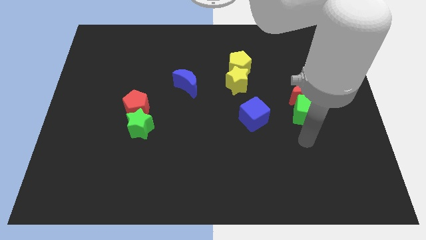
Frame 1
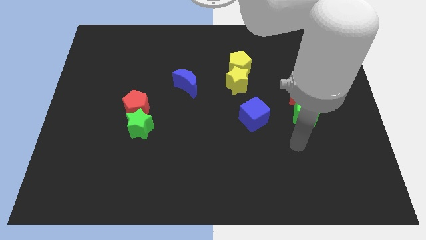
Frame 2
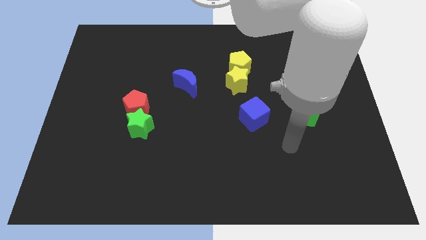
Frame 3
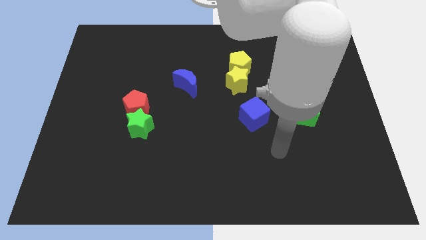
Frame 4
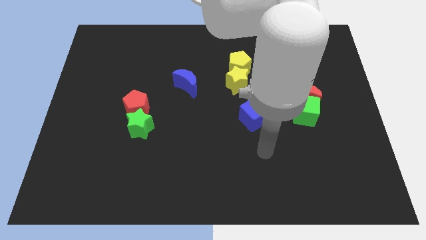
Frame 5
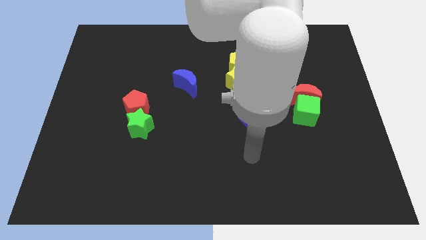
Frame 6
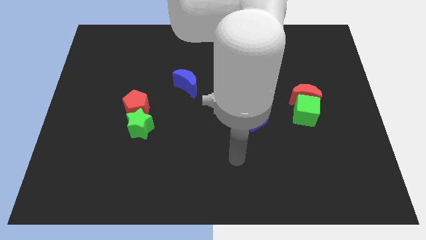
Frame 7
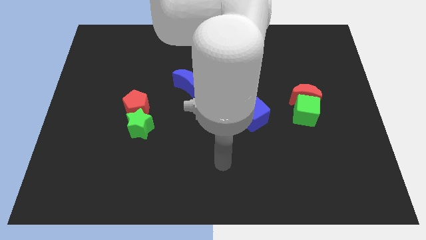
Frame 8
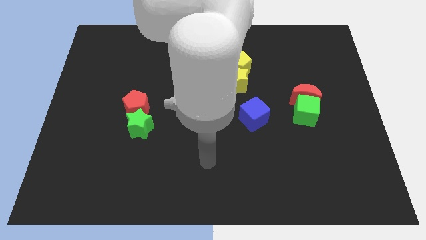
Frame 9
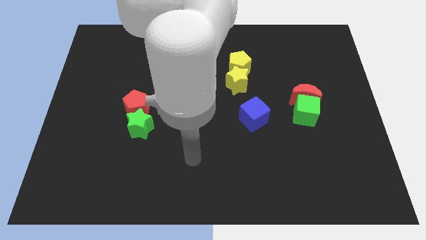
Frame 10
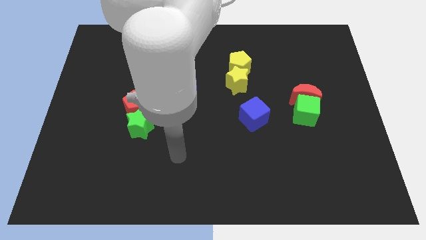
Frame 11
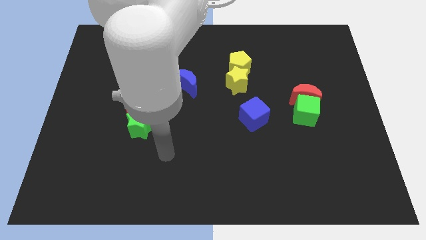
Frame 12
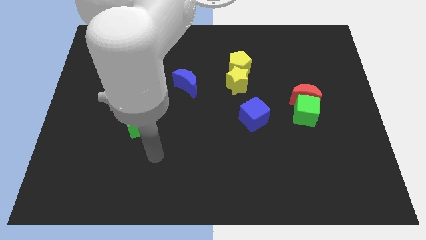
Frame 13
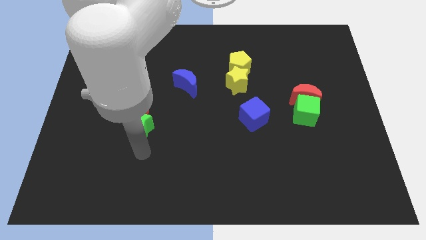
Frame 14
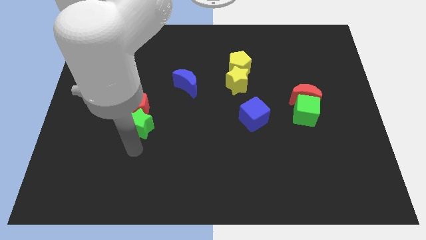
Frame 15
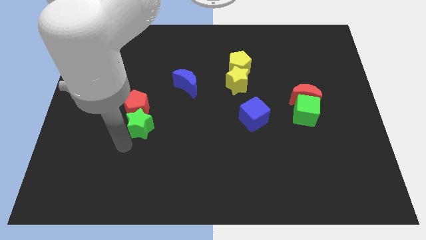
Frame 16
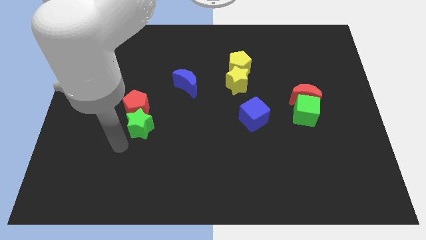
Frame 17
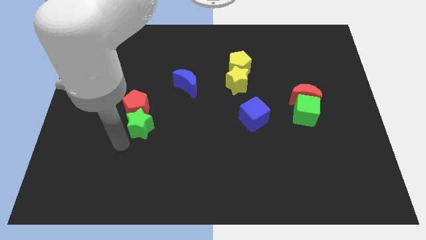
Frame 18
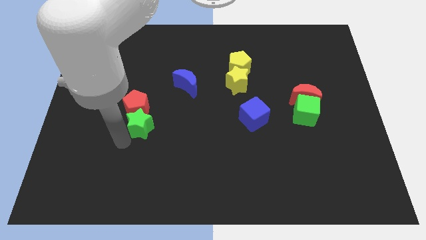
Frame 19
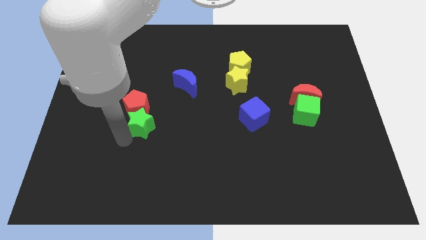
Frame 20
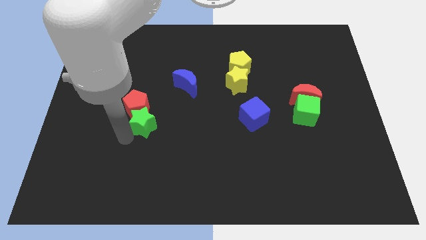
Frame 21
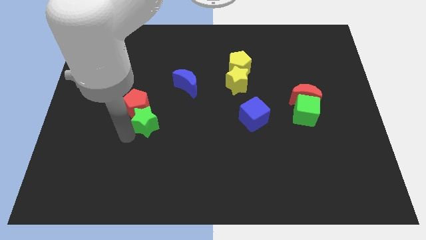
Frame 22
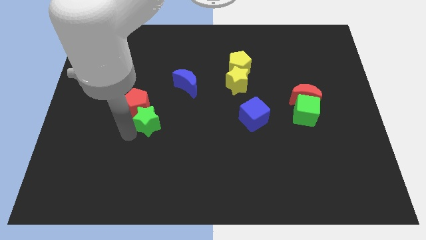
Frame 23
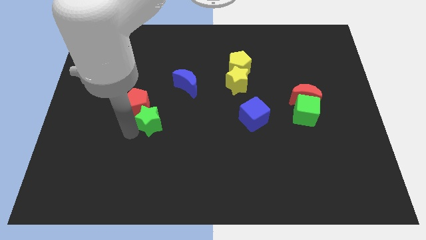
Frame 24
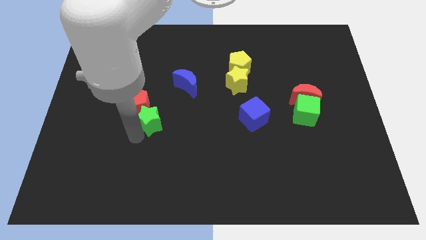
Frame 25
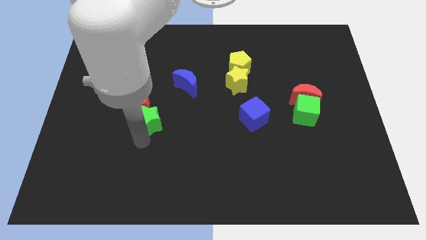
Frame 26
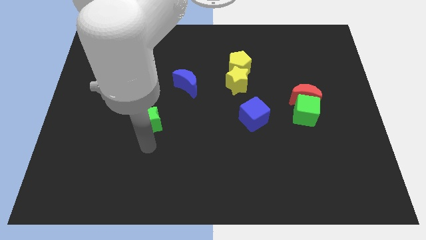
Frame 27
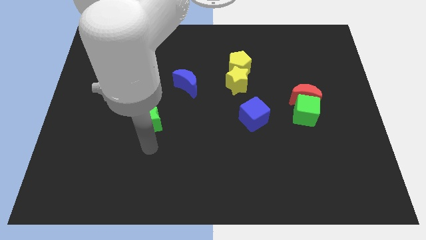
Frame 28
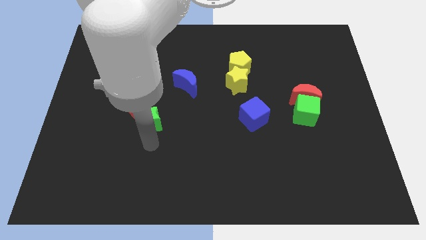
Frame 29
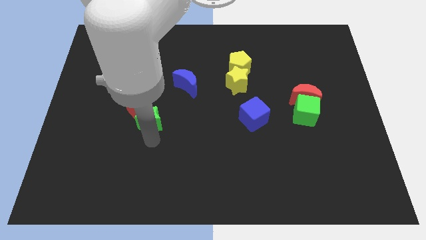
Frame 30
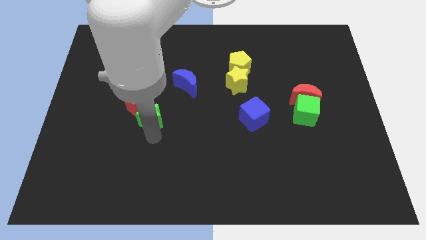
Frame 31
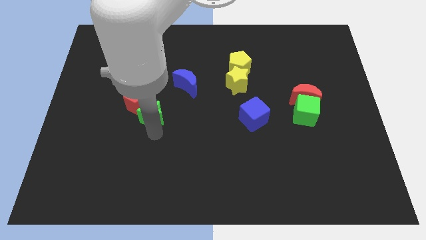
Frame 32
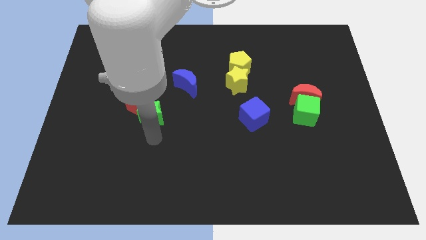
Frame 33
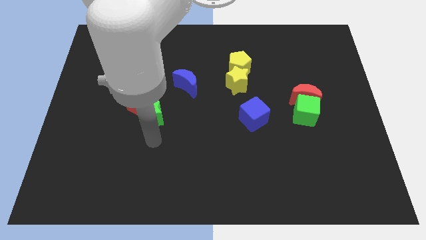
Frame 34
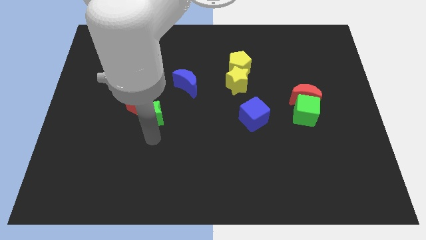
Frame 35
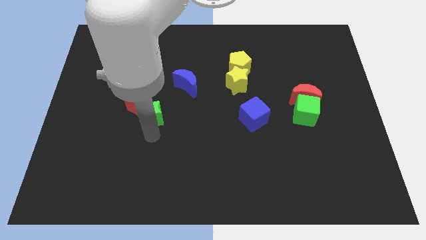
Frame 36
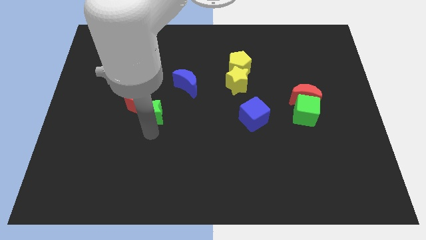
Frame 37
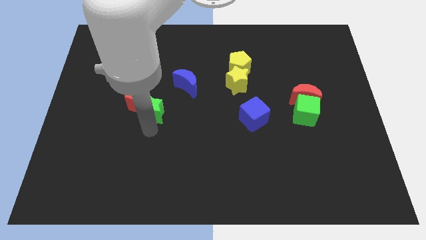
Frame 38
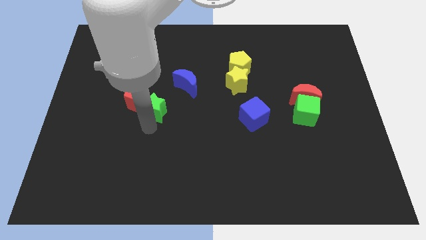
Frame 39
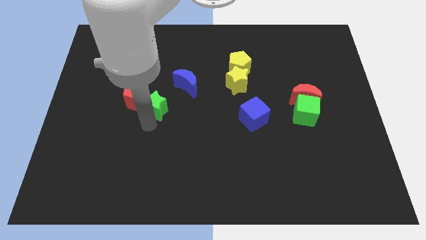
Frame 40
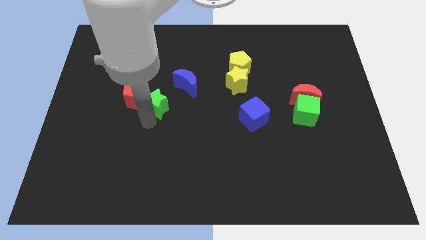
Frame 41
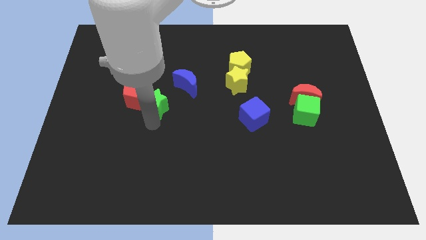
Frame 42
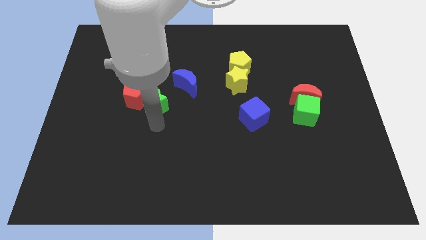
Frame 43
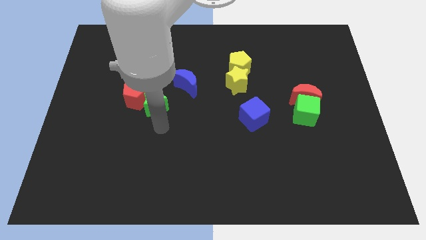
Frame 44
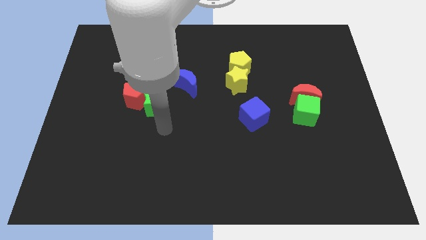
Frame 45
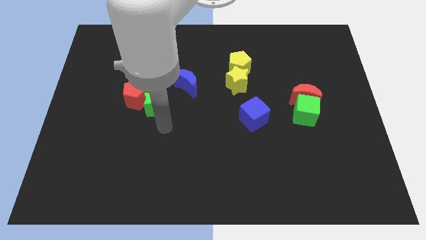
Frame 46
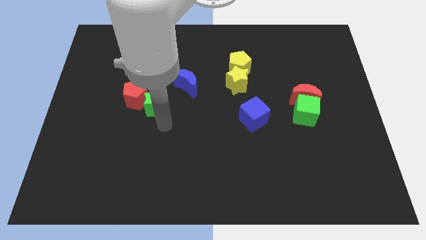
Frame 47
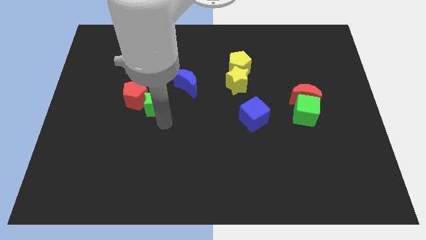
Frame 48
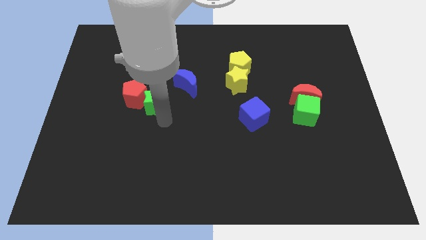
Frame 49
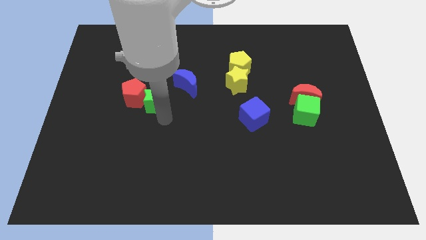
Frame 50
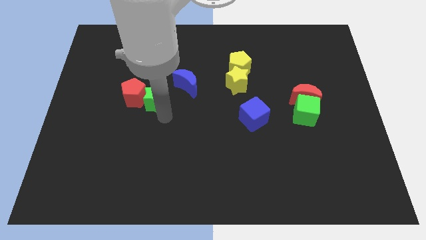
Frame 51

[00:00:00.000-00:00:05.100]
move the green star somewhat upwards

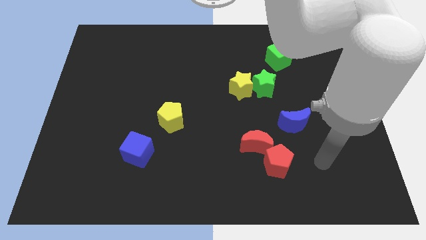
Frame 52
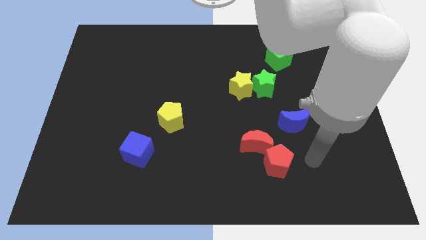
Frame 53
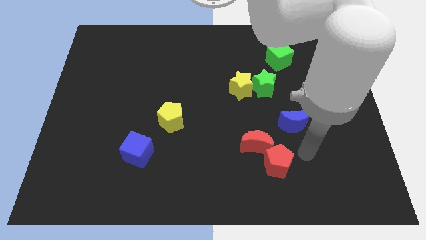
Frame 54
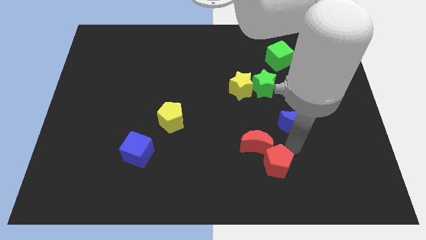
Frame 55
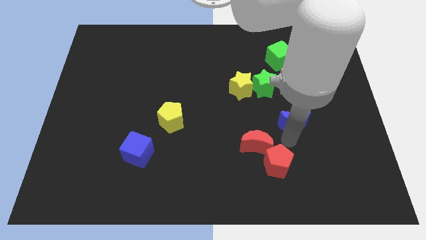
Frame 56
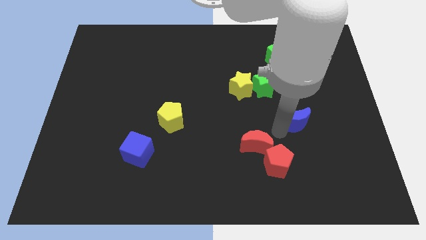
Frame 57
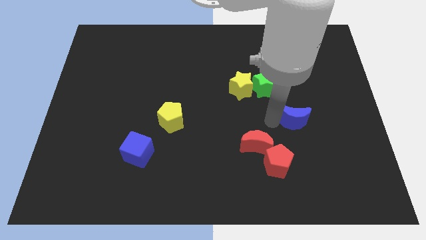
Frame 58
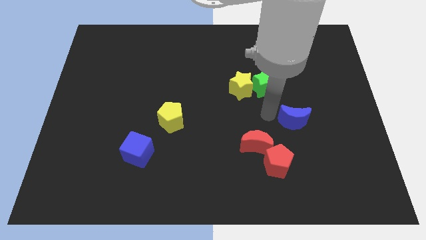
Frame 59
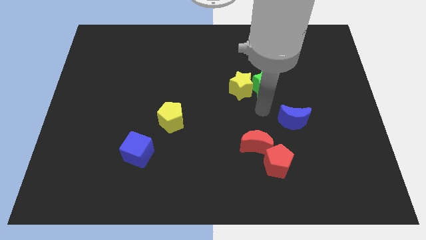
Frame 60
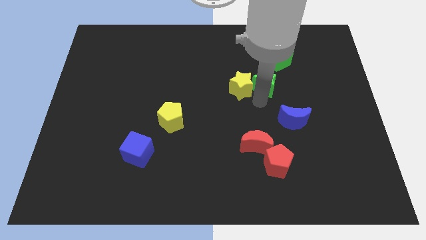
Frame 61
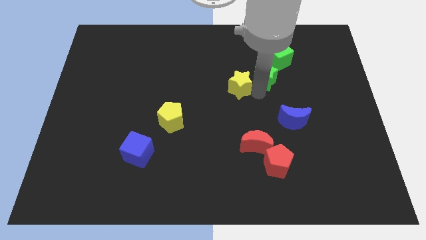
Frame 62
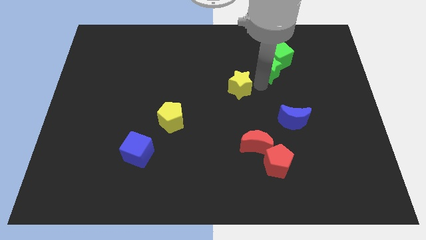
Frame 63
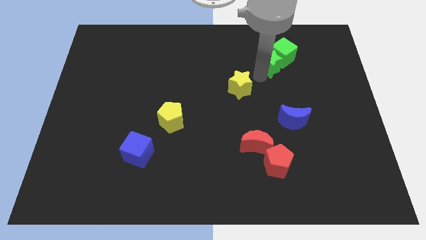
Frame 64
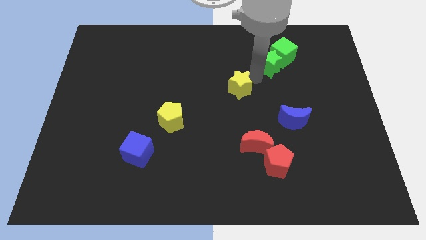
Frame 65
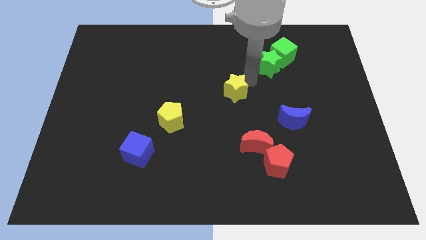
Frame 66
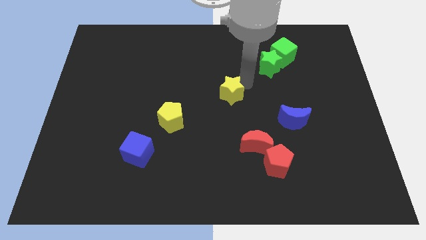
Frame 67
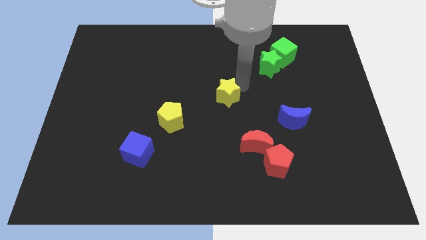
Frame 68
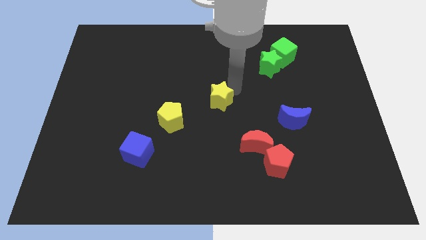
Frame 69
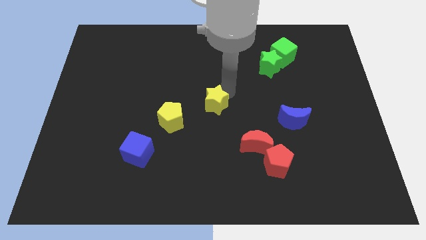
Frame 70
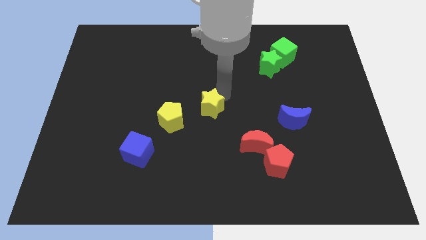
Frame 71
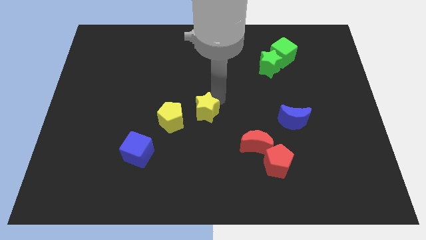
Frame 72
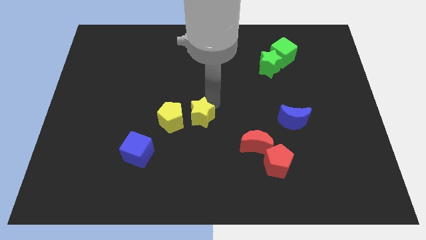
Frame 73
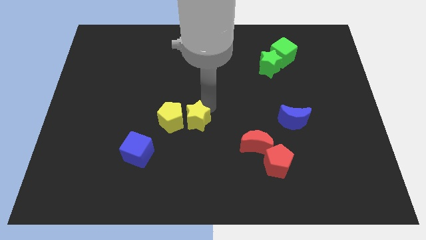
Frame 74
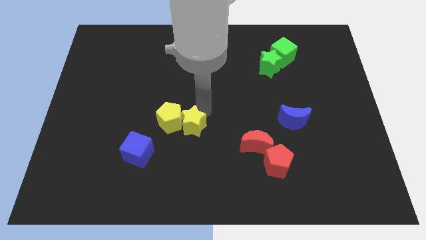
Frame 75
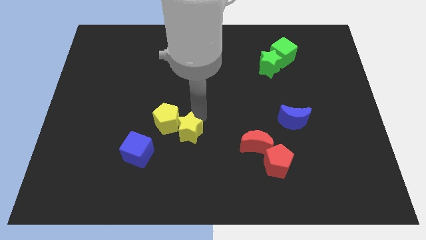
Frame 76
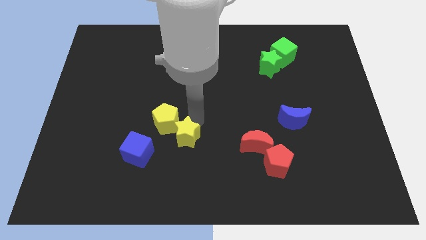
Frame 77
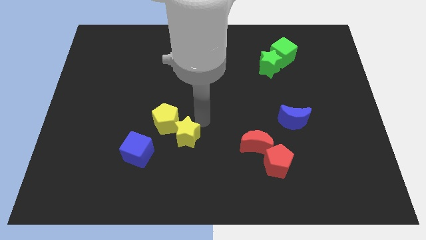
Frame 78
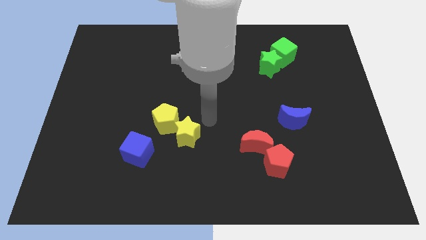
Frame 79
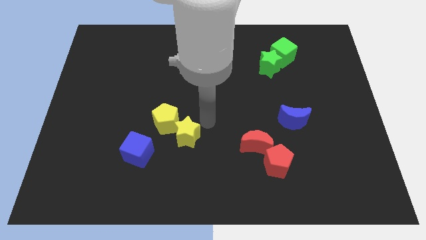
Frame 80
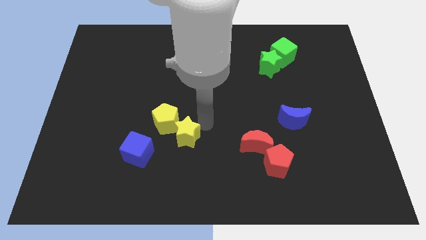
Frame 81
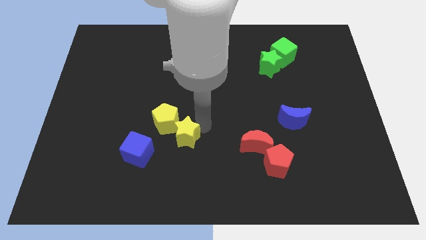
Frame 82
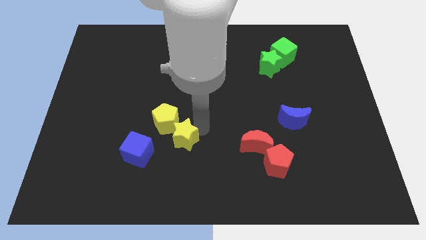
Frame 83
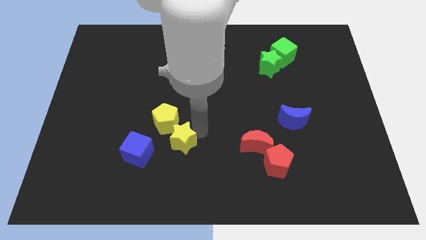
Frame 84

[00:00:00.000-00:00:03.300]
move the yellow star downwards and left
